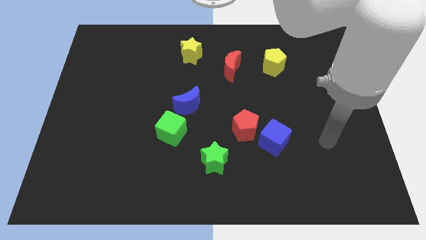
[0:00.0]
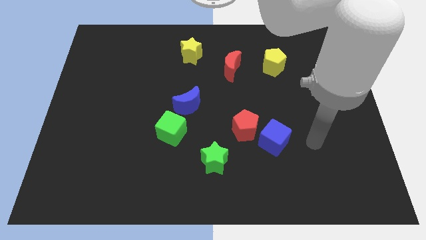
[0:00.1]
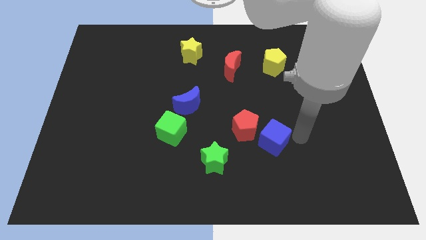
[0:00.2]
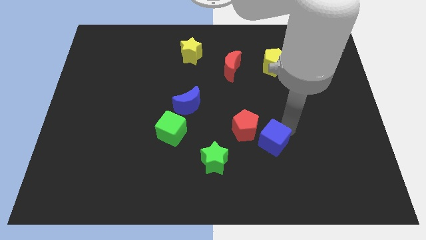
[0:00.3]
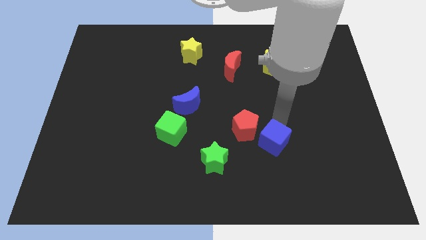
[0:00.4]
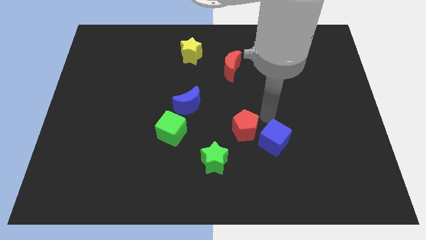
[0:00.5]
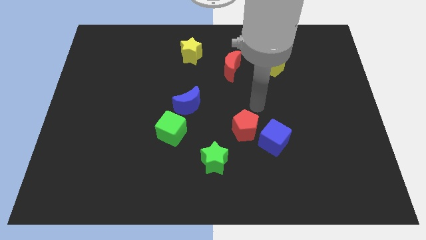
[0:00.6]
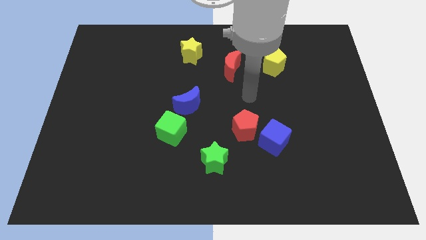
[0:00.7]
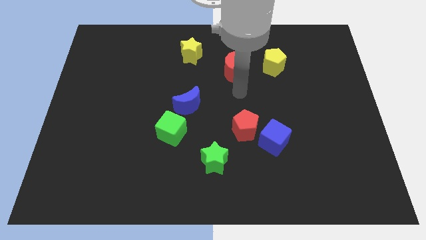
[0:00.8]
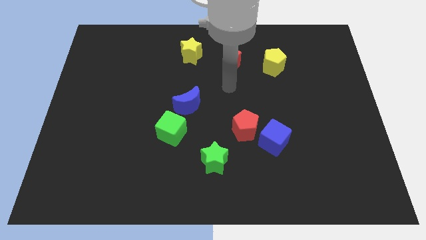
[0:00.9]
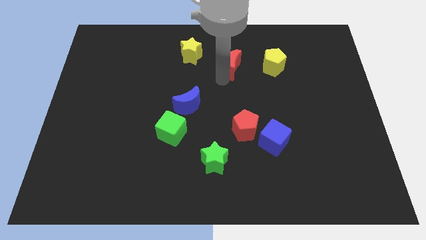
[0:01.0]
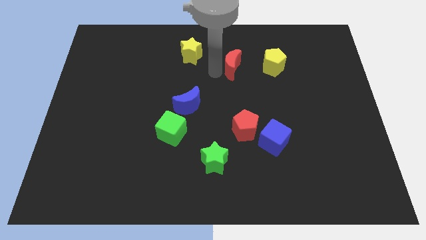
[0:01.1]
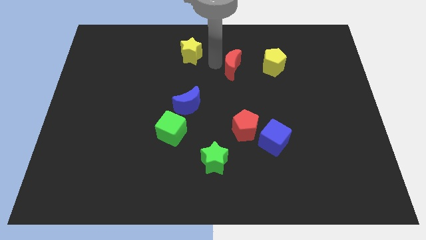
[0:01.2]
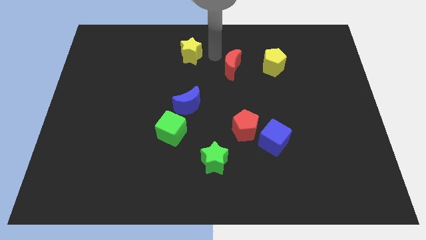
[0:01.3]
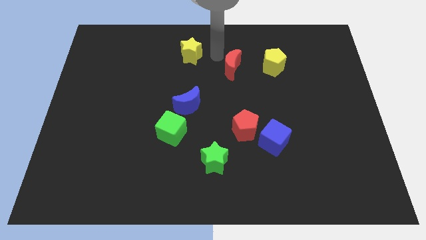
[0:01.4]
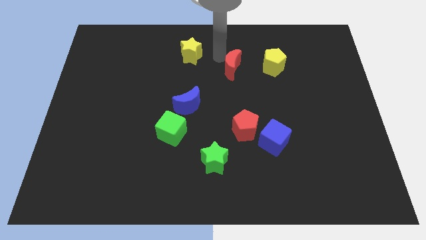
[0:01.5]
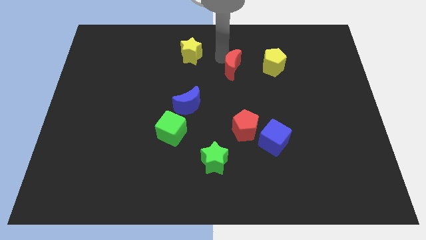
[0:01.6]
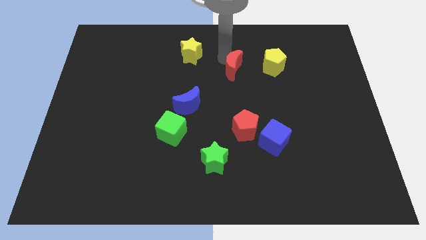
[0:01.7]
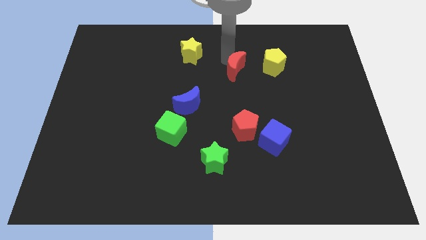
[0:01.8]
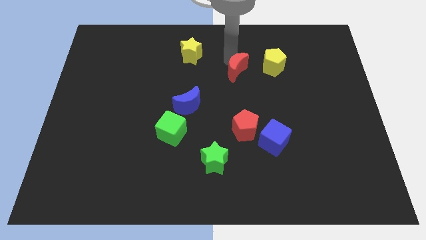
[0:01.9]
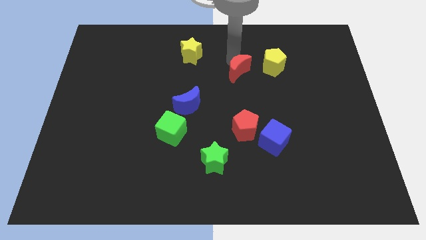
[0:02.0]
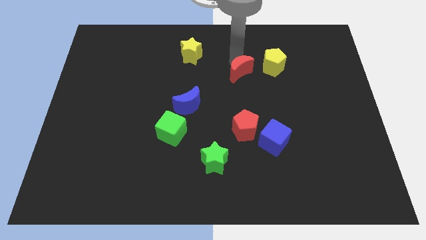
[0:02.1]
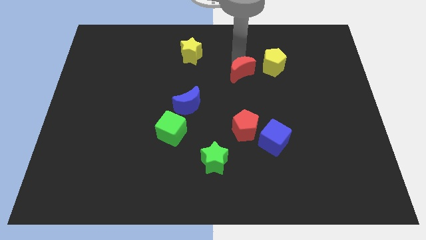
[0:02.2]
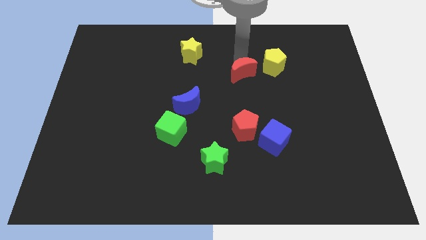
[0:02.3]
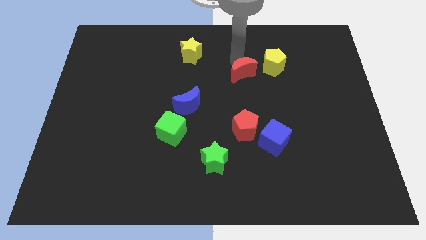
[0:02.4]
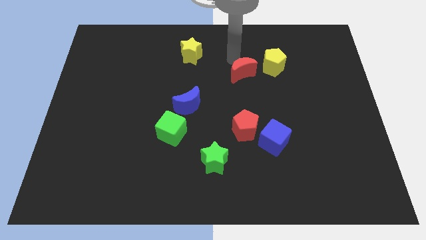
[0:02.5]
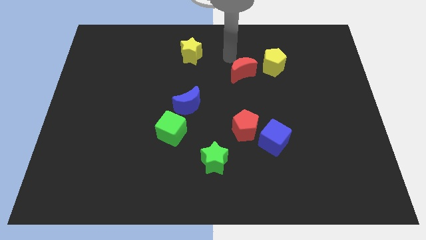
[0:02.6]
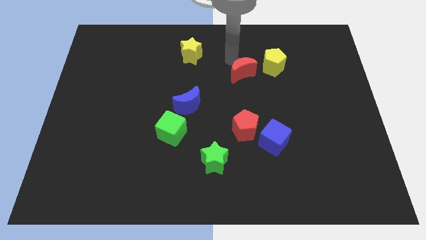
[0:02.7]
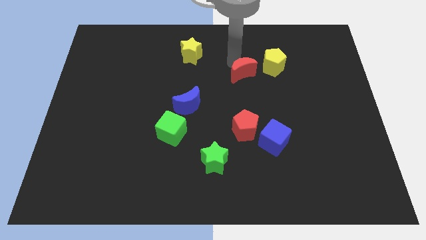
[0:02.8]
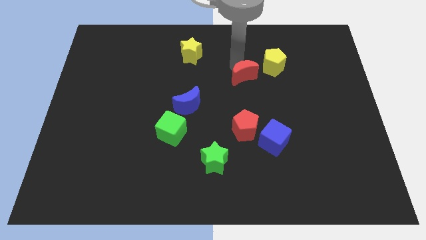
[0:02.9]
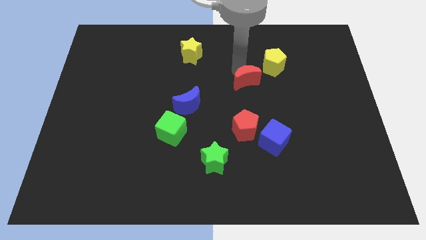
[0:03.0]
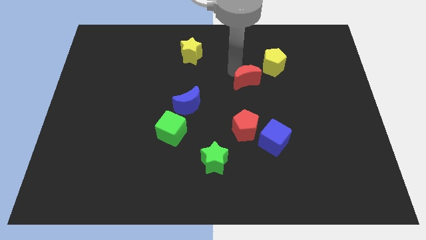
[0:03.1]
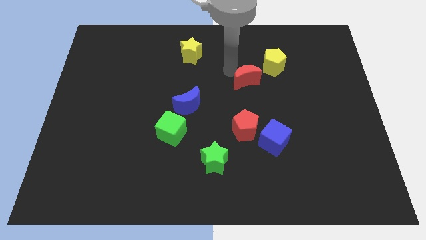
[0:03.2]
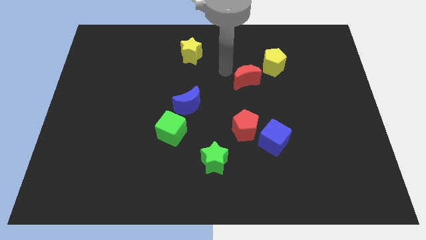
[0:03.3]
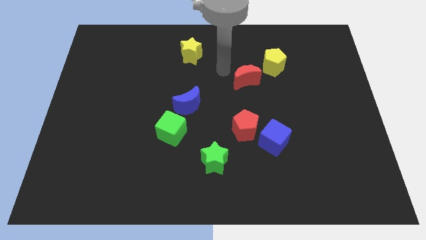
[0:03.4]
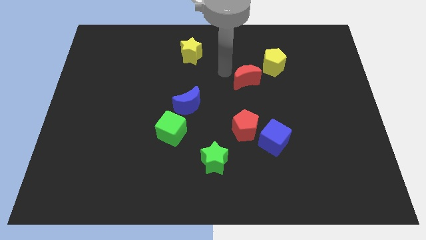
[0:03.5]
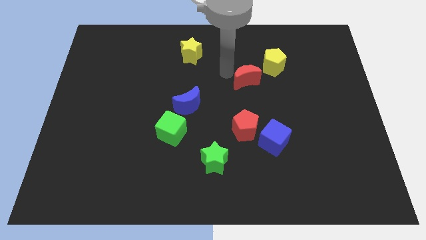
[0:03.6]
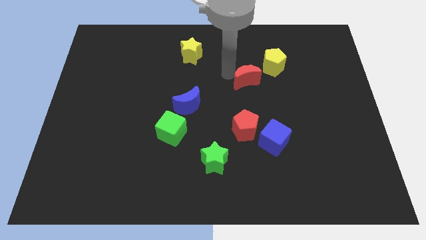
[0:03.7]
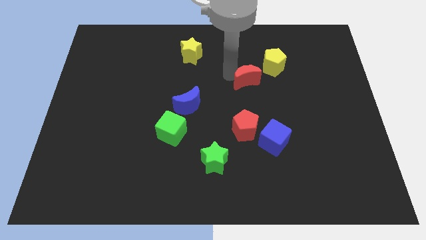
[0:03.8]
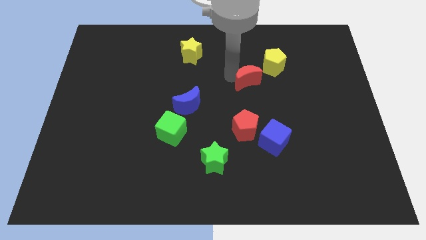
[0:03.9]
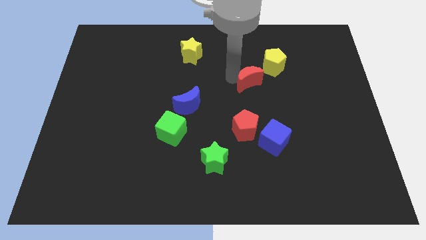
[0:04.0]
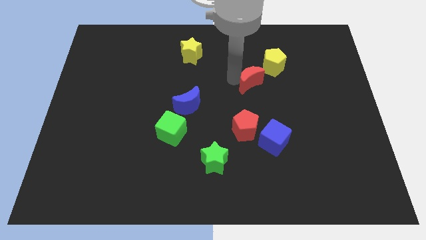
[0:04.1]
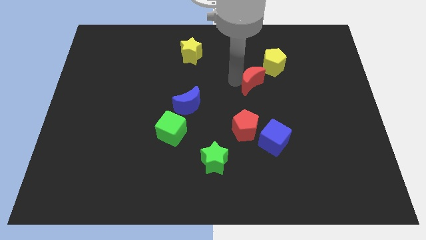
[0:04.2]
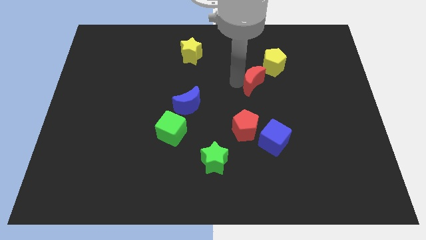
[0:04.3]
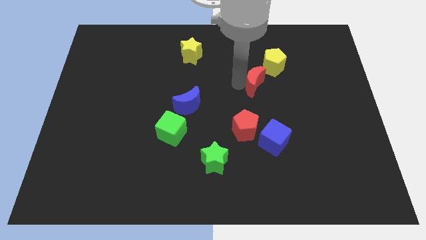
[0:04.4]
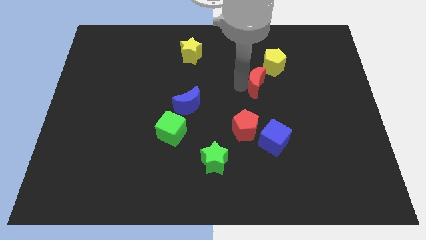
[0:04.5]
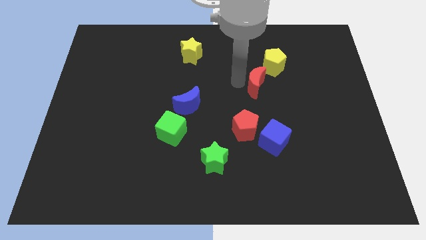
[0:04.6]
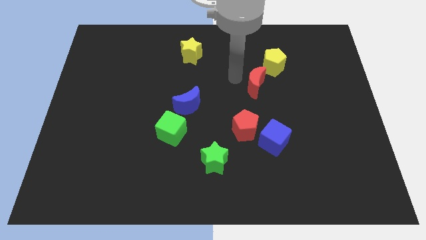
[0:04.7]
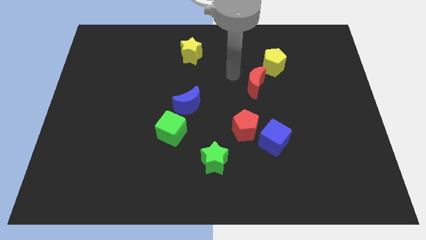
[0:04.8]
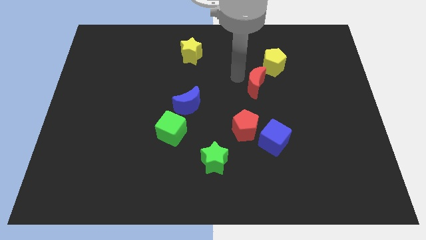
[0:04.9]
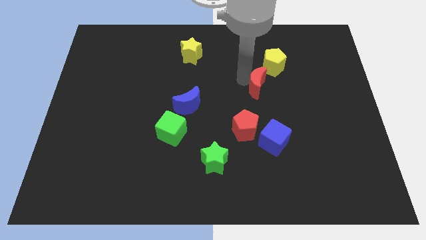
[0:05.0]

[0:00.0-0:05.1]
push the red moon to the bottom of the yellow pentagon

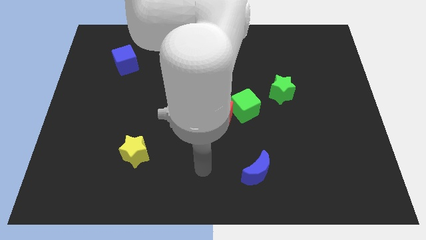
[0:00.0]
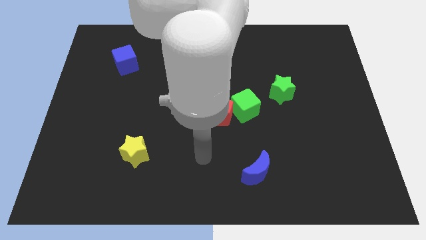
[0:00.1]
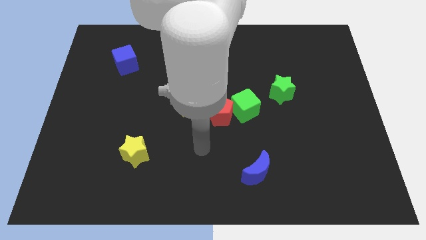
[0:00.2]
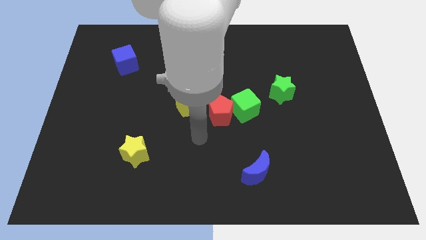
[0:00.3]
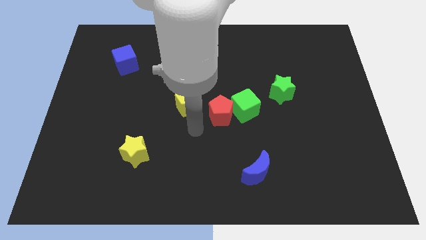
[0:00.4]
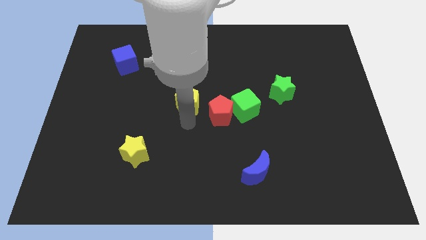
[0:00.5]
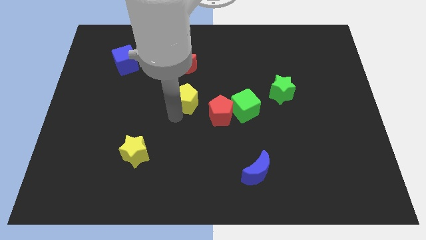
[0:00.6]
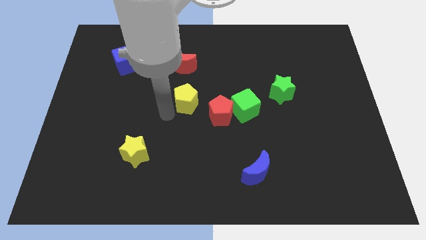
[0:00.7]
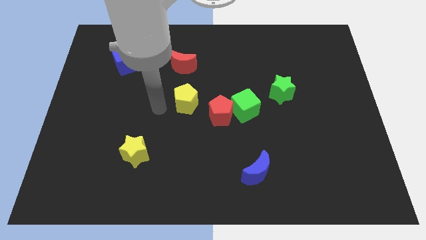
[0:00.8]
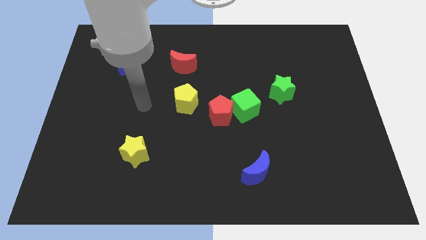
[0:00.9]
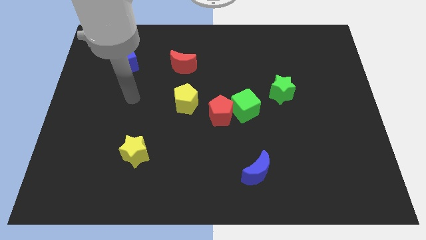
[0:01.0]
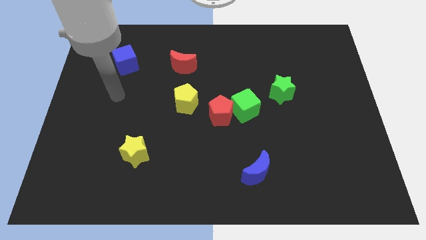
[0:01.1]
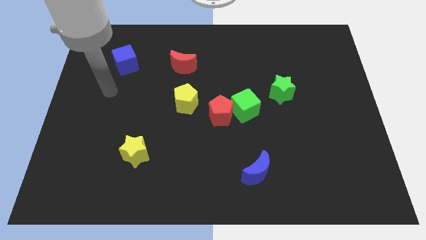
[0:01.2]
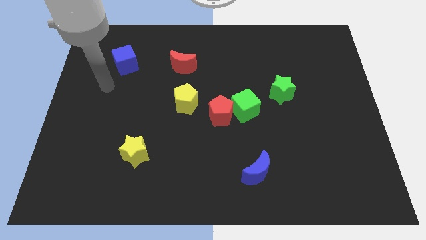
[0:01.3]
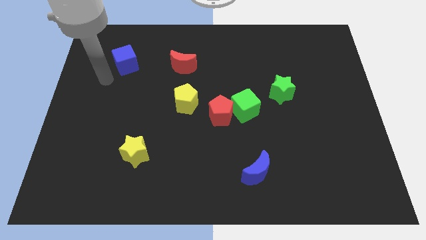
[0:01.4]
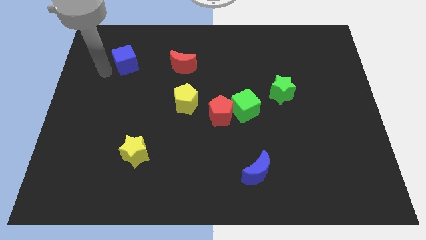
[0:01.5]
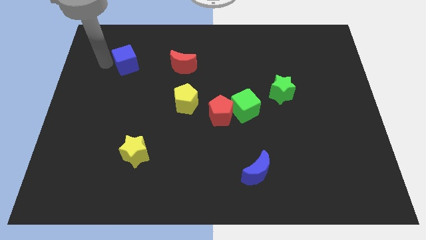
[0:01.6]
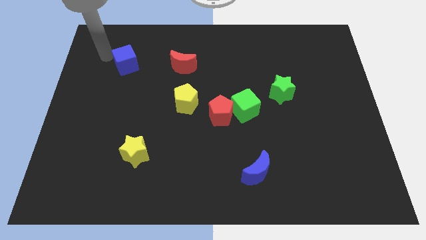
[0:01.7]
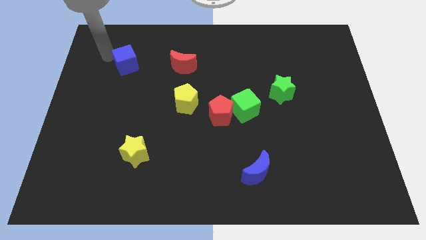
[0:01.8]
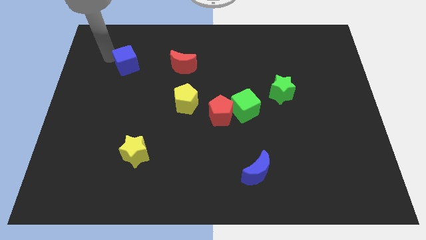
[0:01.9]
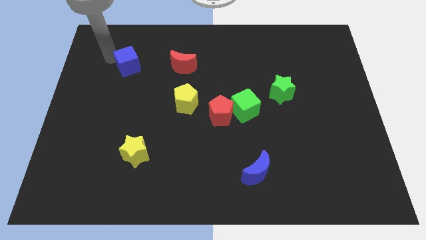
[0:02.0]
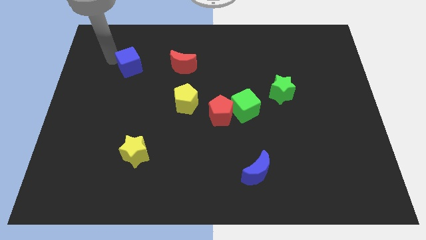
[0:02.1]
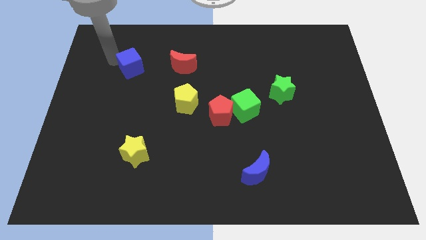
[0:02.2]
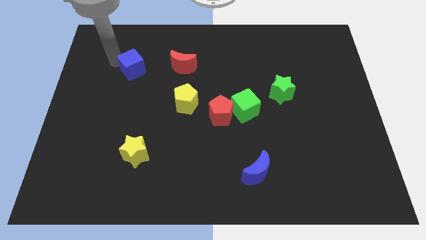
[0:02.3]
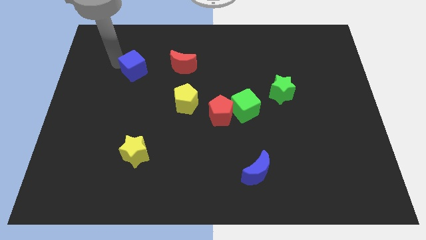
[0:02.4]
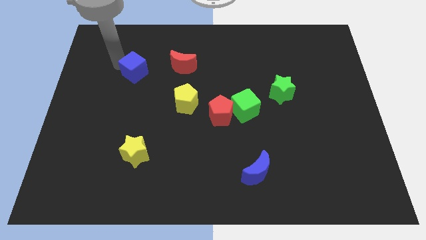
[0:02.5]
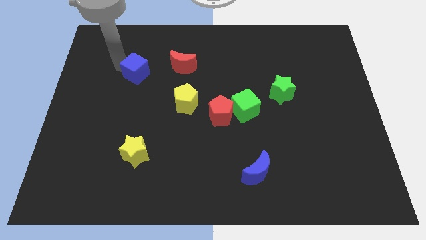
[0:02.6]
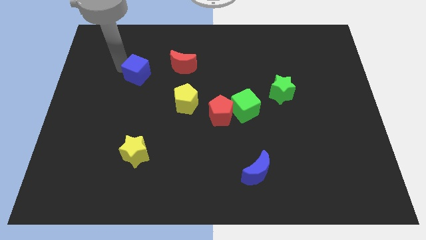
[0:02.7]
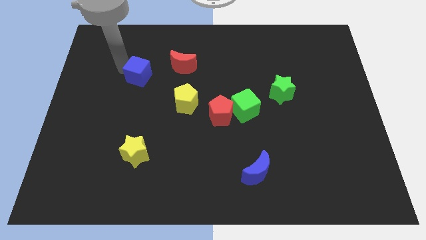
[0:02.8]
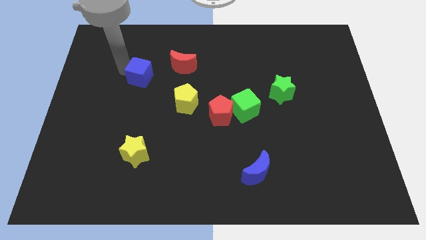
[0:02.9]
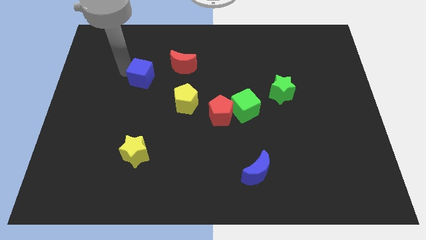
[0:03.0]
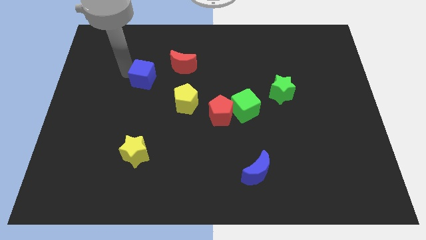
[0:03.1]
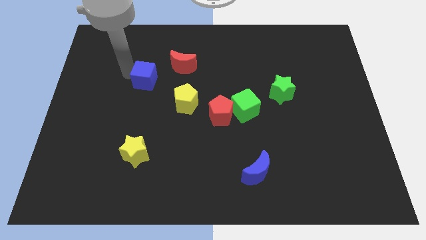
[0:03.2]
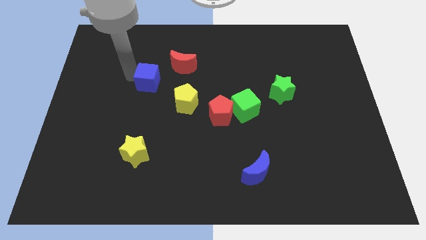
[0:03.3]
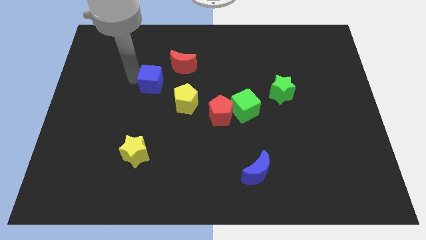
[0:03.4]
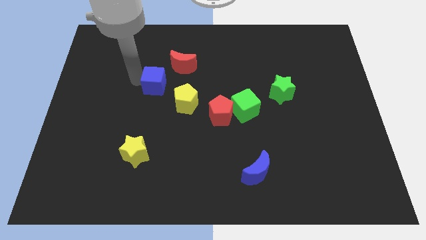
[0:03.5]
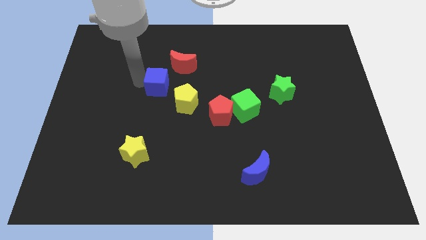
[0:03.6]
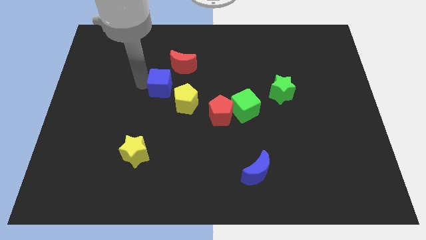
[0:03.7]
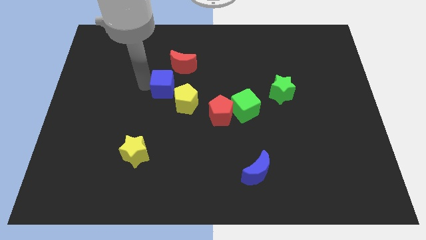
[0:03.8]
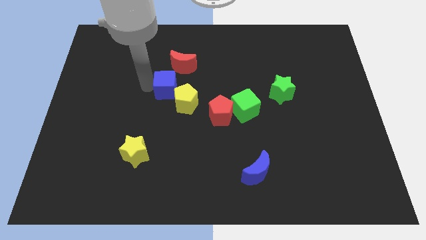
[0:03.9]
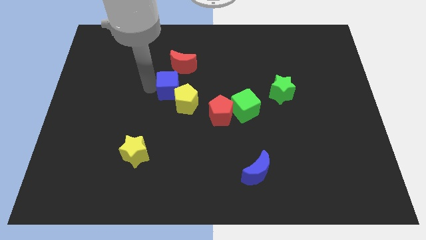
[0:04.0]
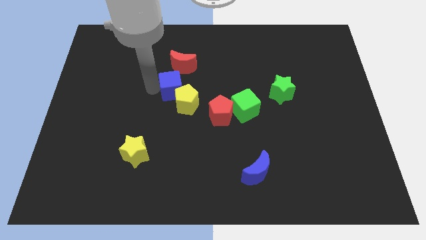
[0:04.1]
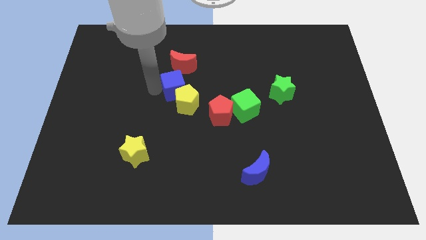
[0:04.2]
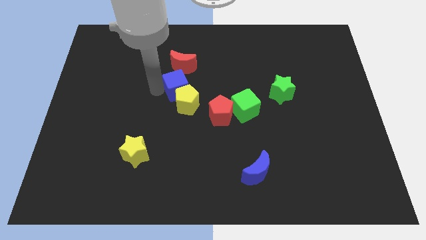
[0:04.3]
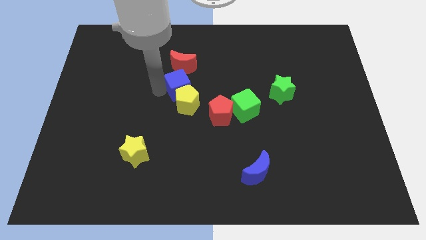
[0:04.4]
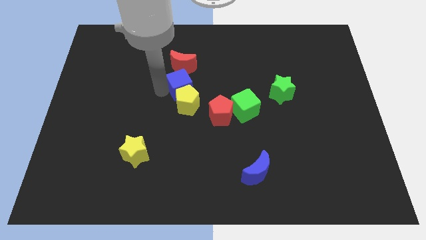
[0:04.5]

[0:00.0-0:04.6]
push the blue cube to the top right of the yellow pentagon
